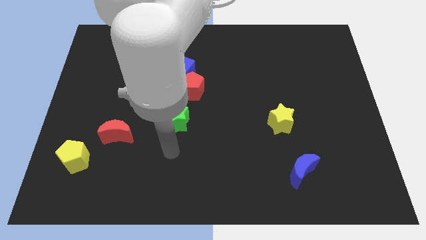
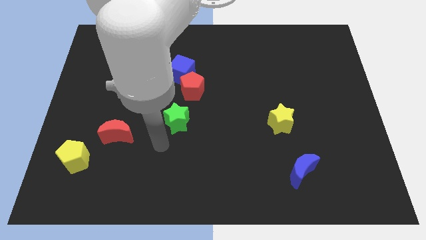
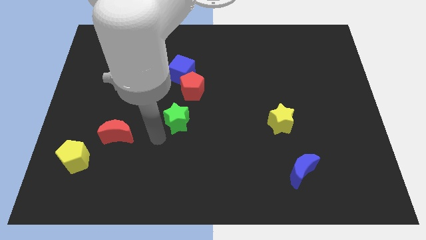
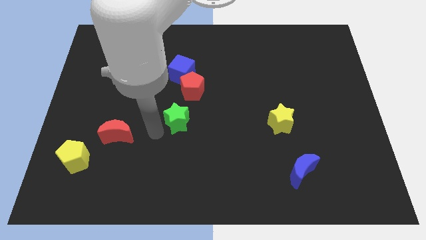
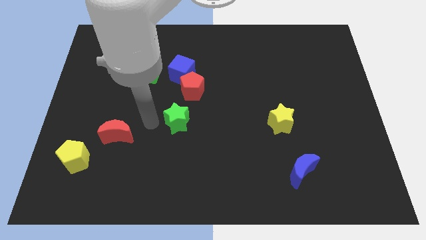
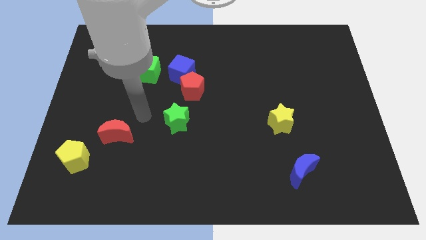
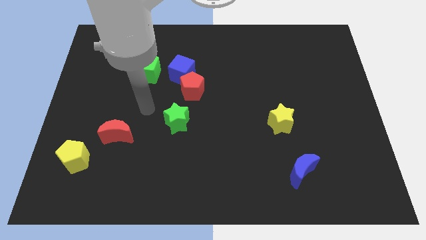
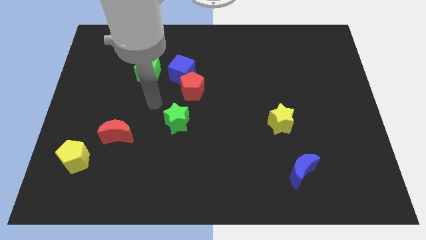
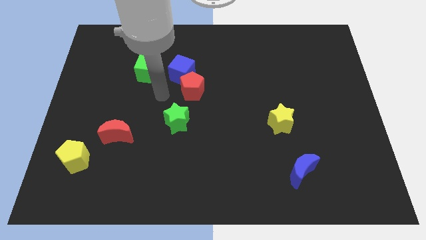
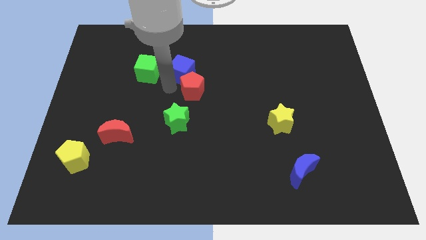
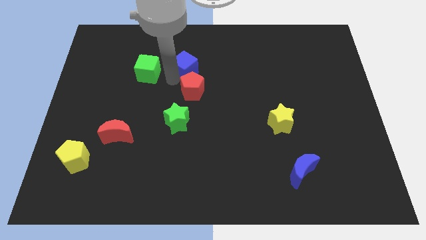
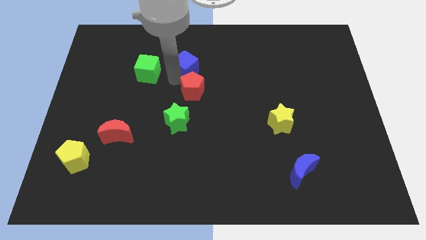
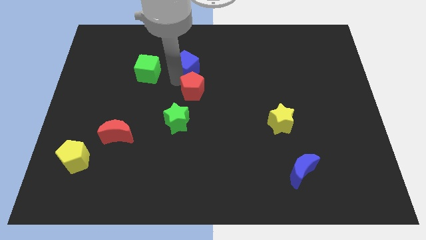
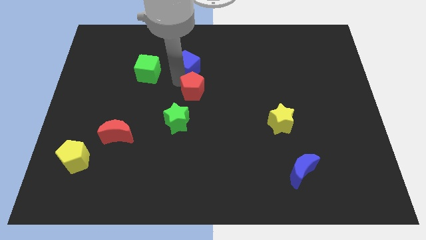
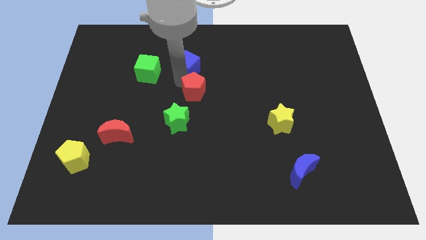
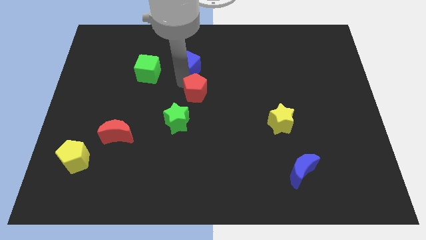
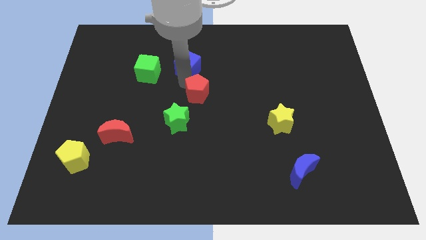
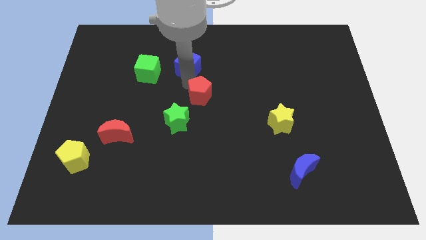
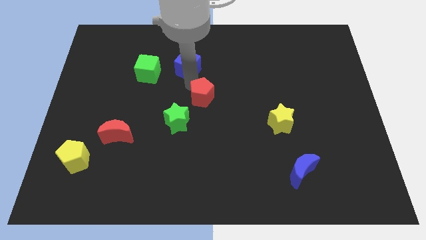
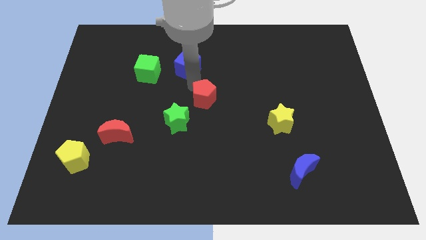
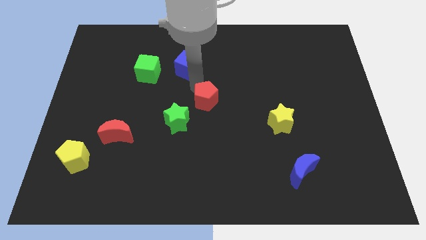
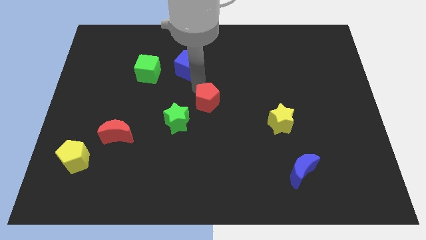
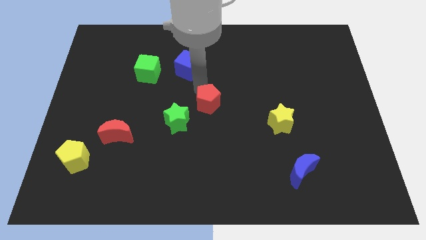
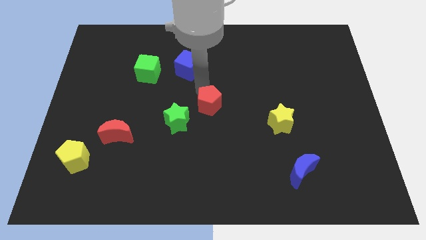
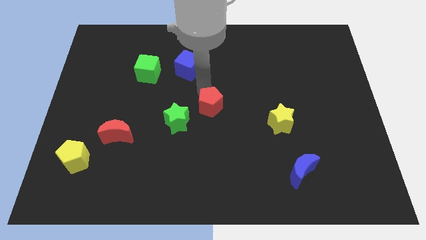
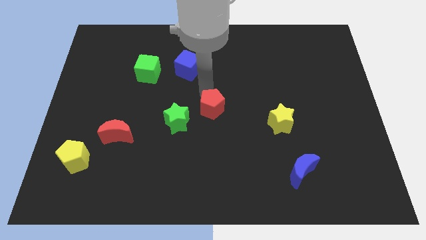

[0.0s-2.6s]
slightly push the red pentagon downwards and then right

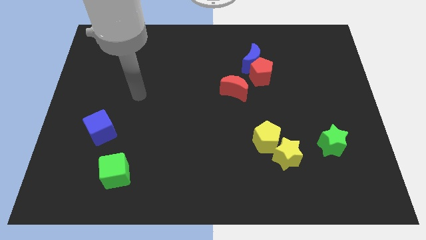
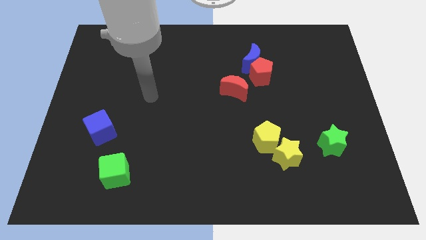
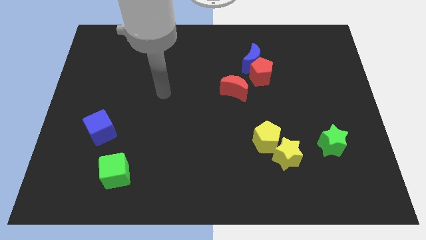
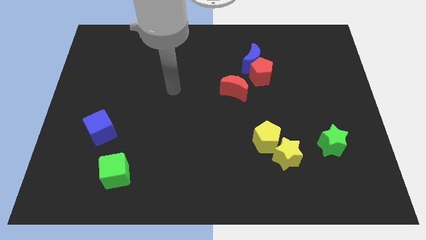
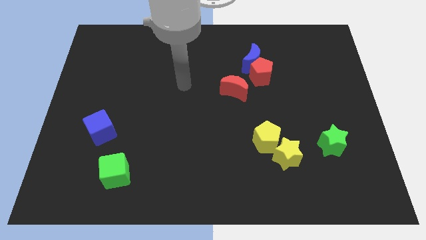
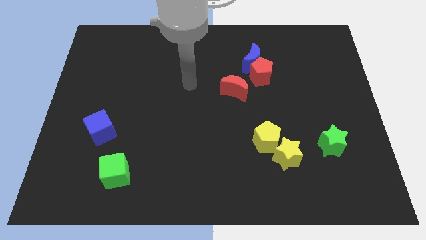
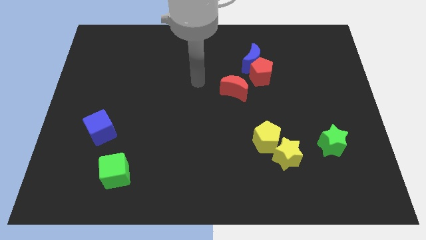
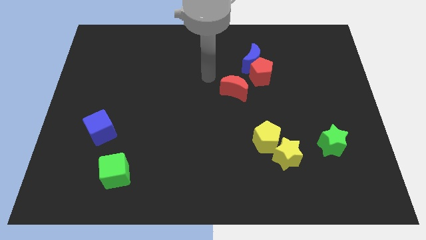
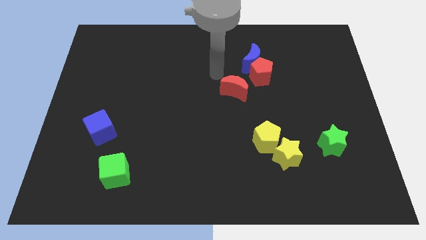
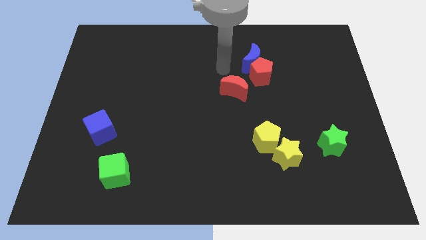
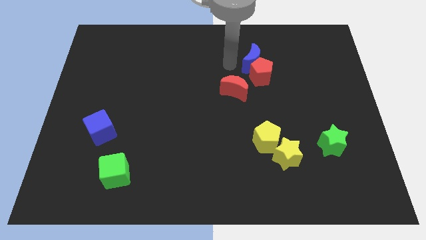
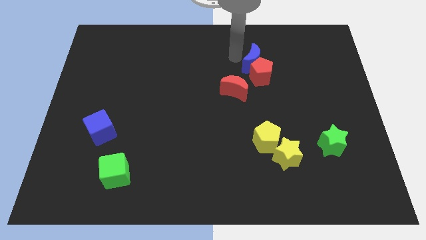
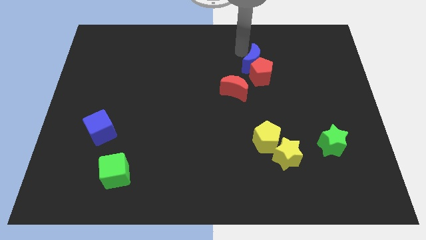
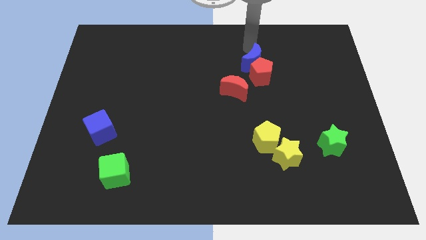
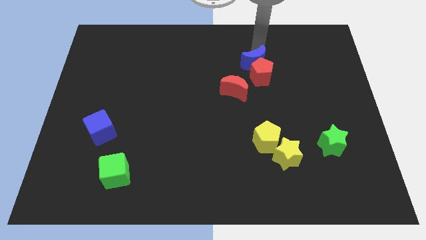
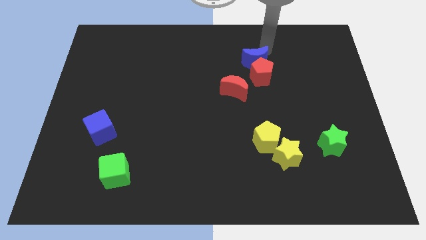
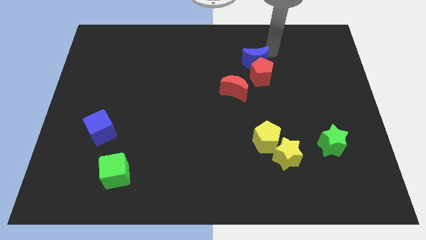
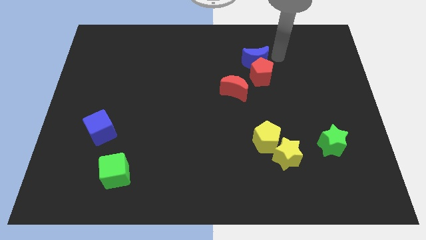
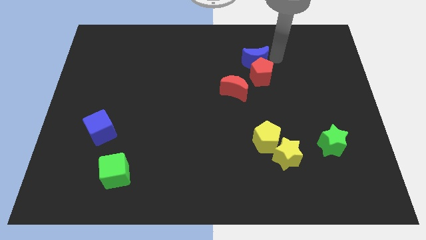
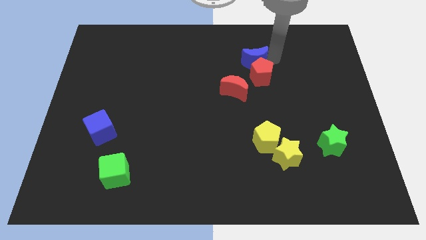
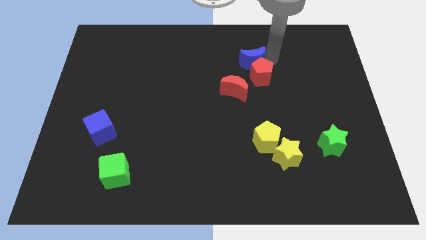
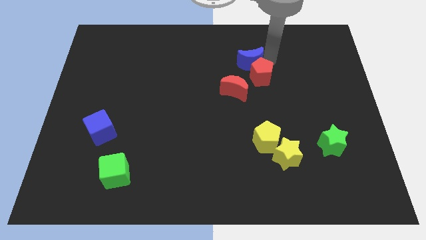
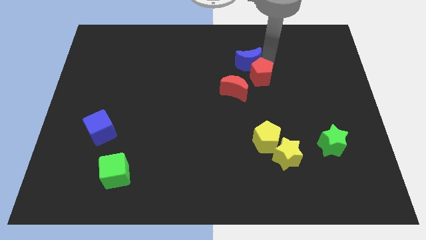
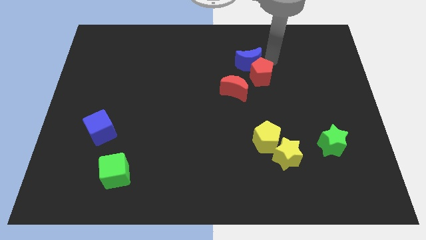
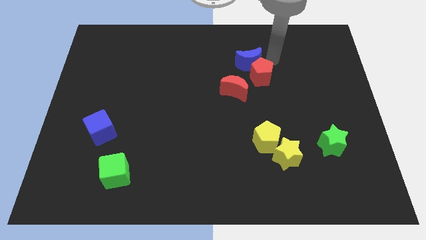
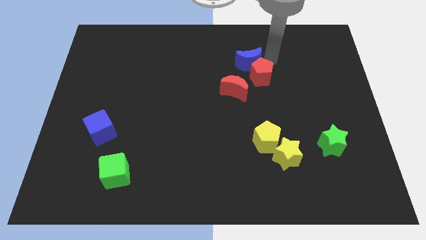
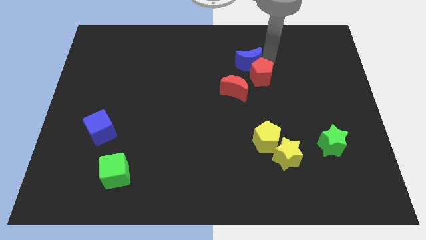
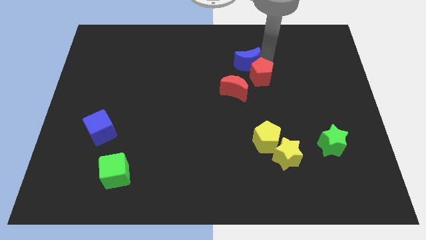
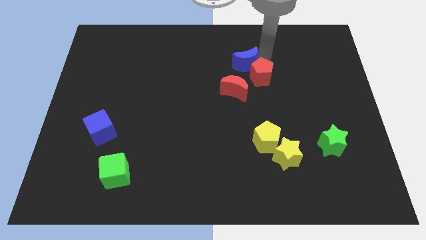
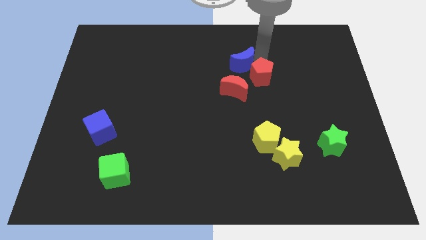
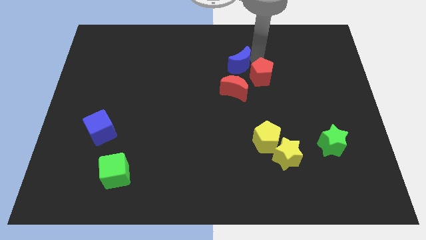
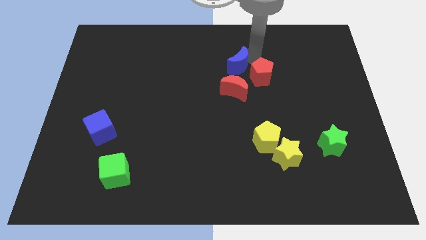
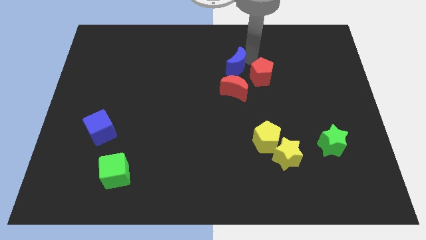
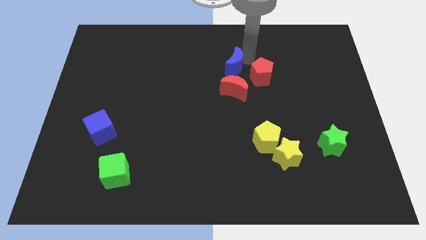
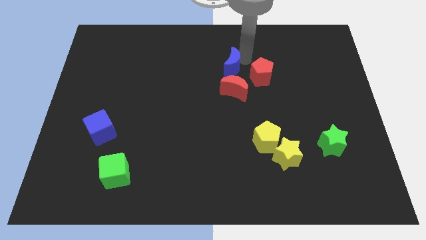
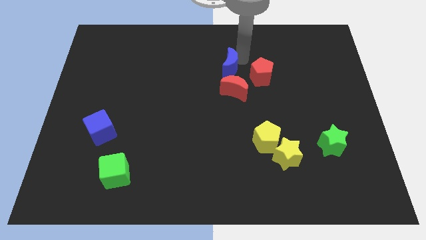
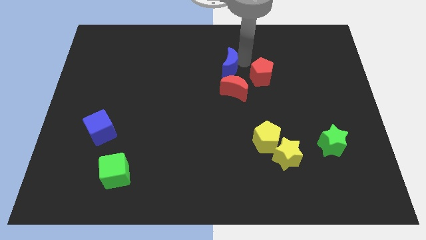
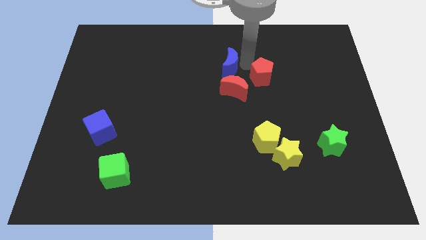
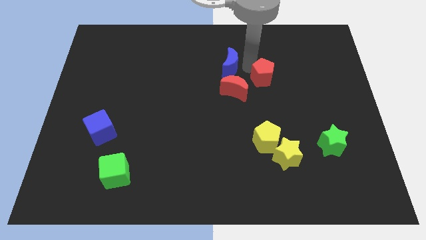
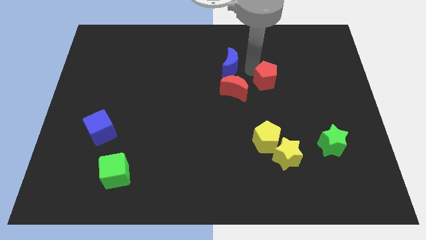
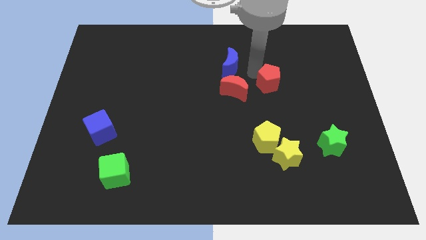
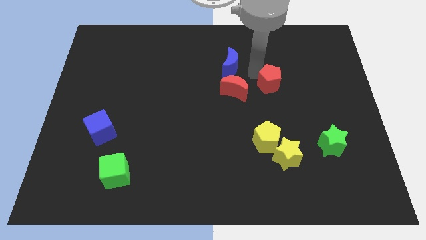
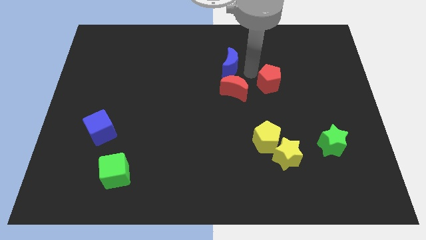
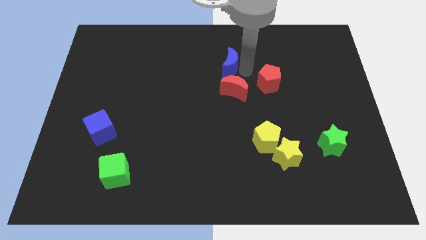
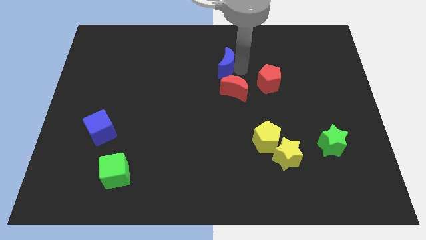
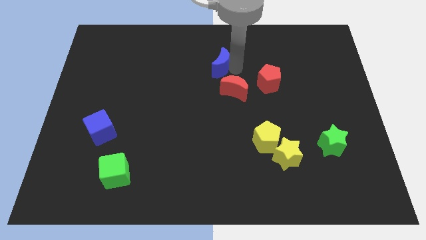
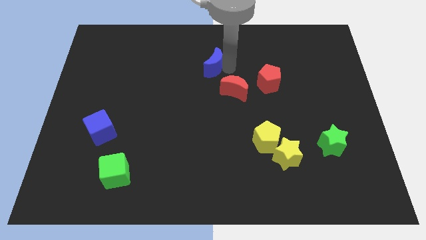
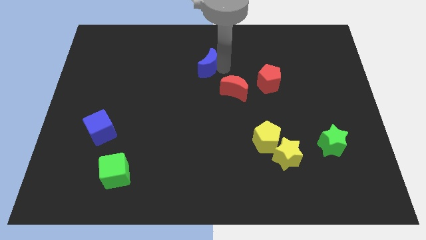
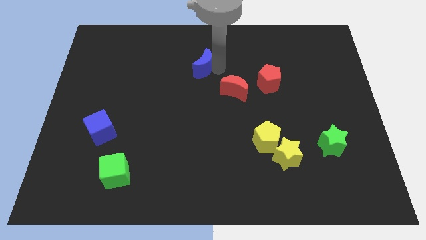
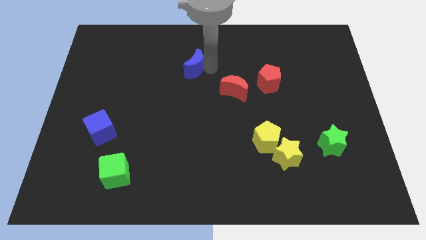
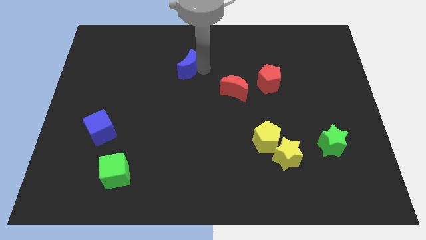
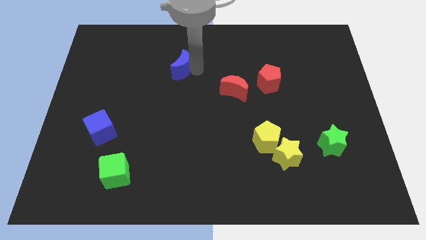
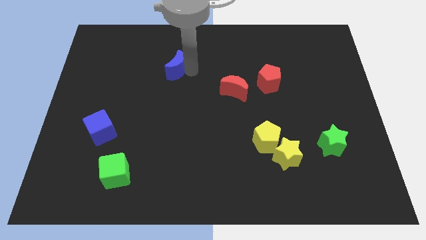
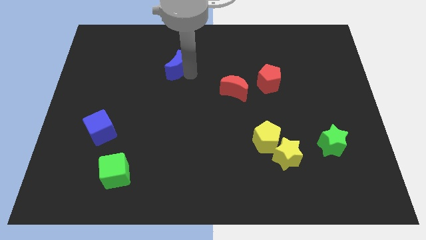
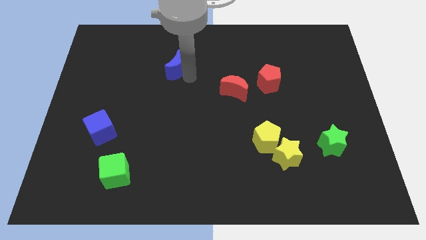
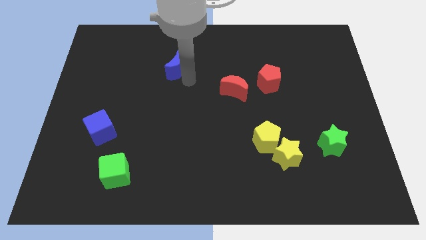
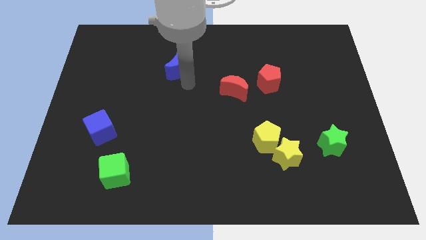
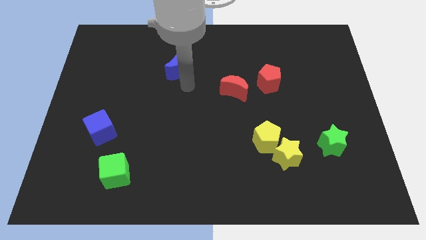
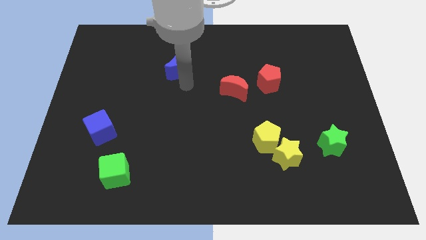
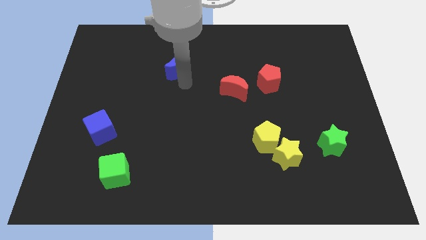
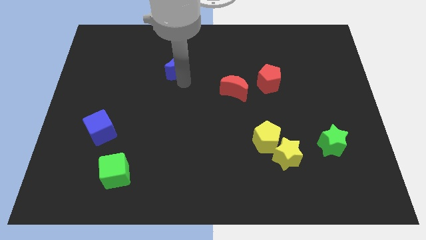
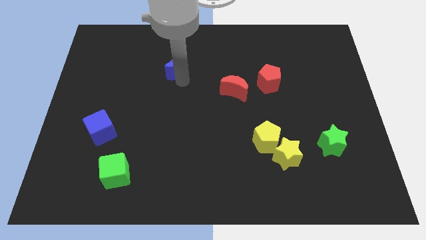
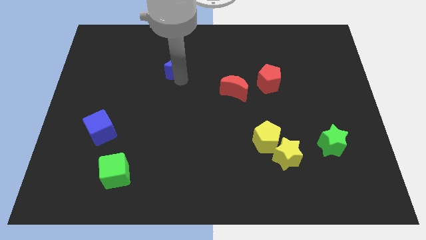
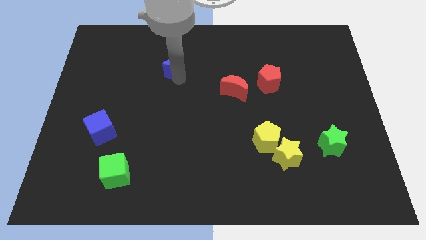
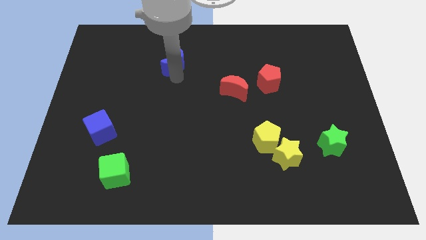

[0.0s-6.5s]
move the blue moon to the left
